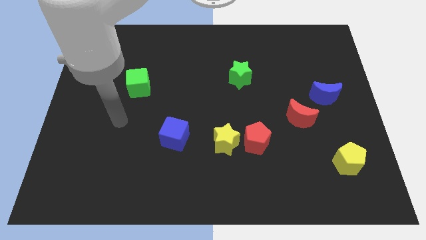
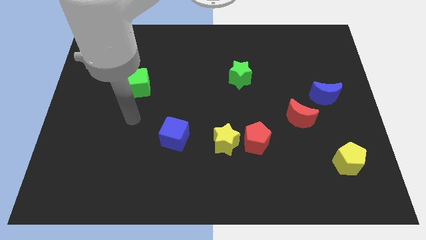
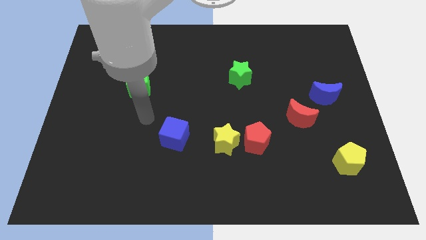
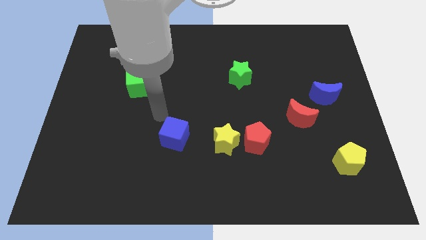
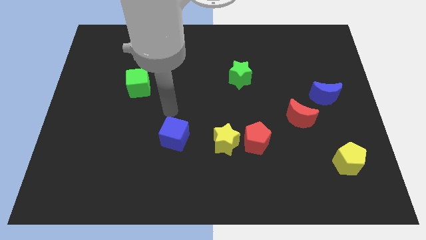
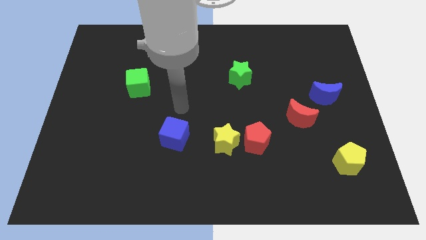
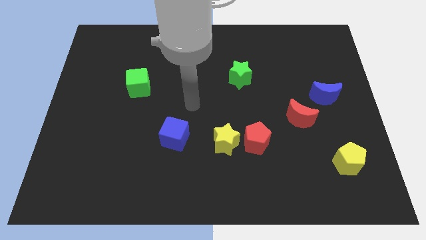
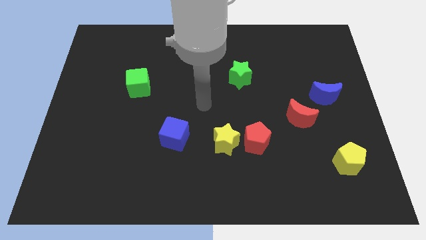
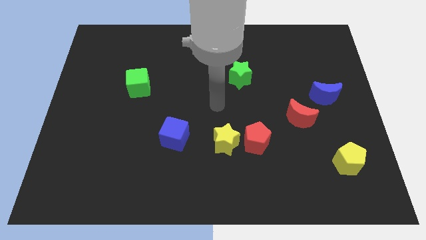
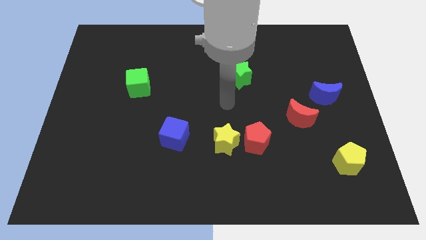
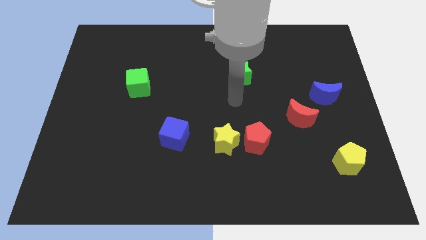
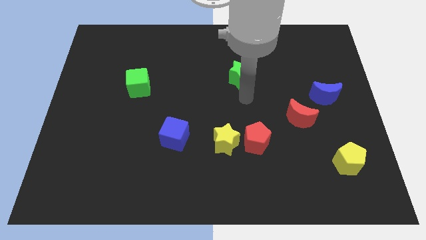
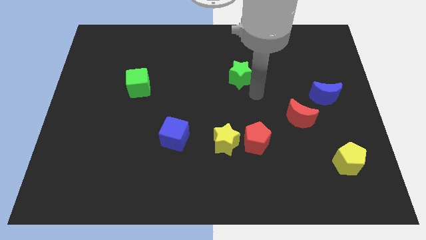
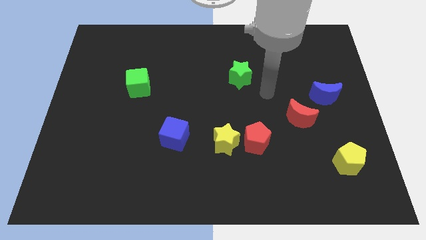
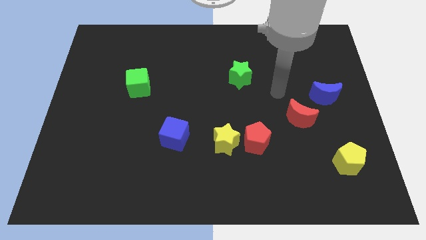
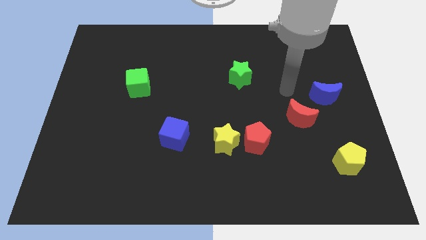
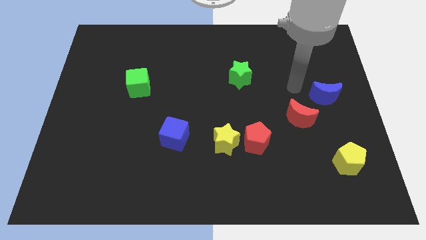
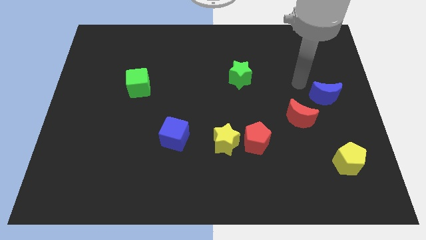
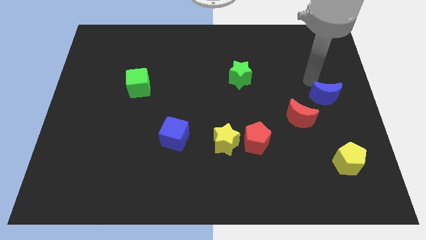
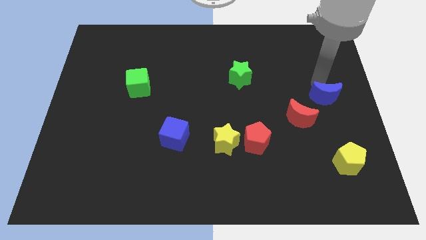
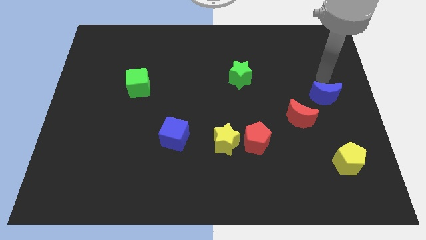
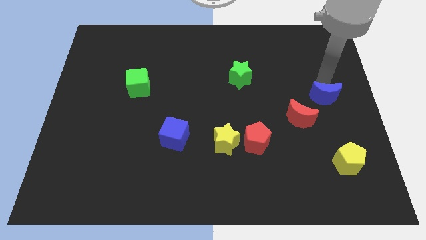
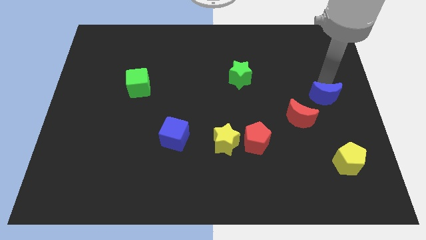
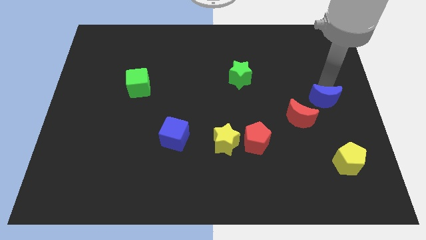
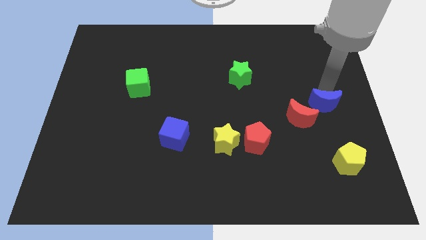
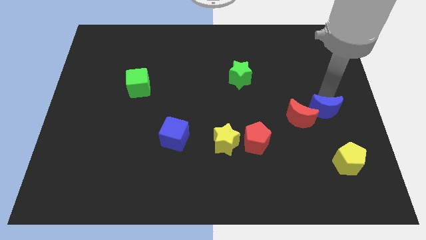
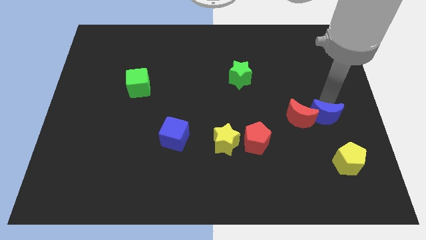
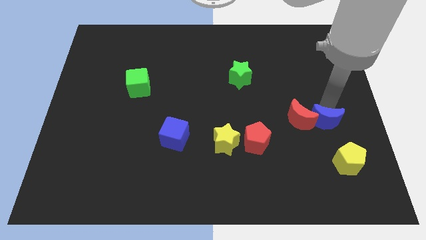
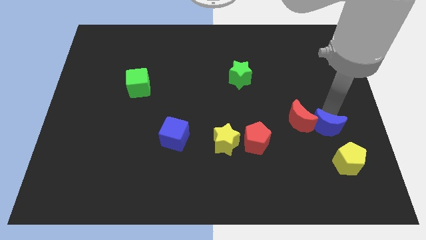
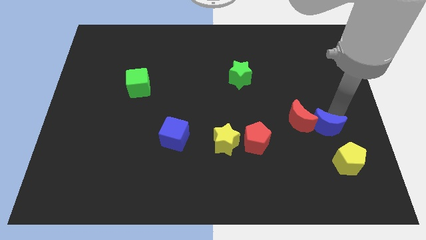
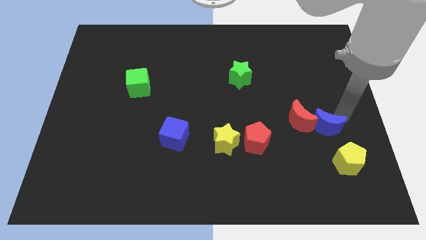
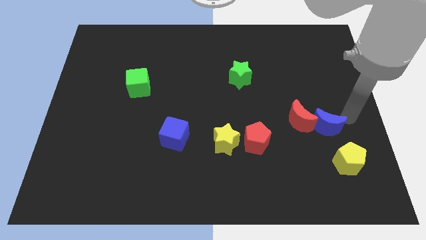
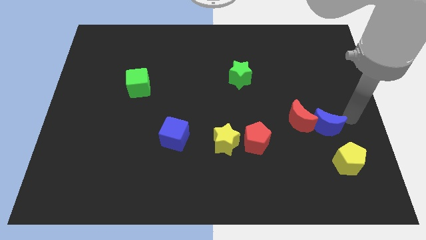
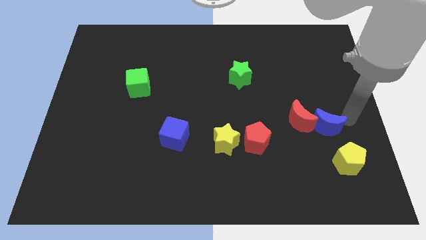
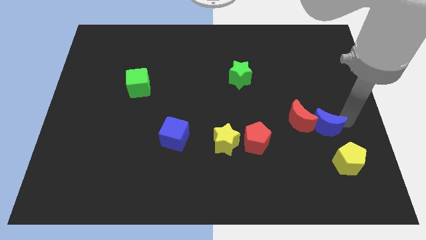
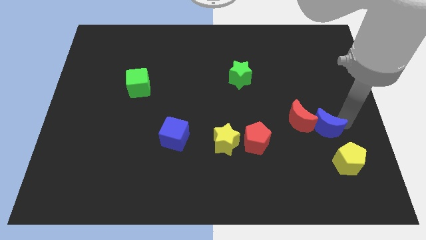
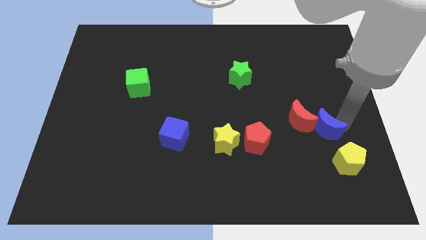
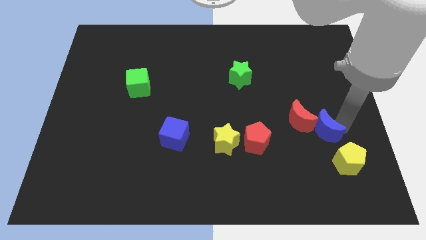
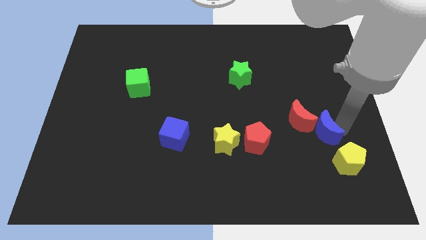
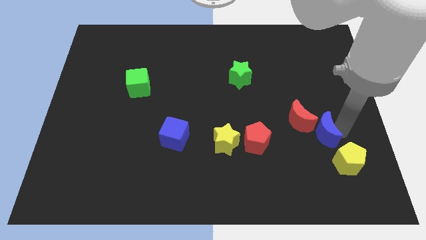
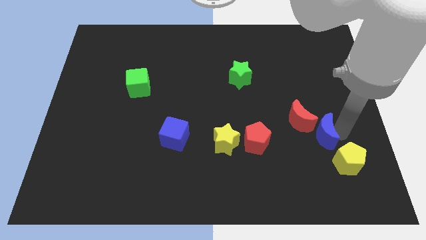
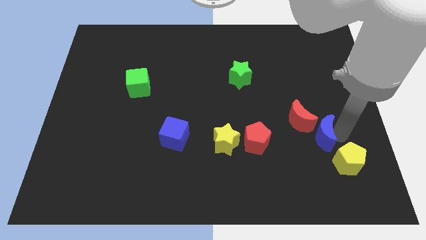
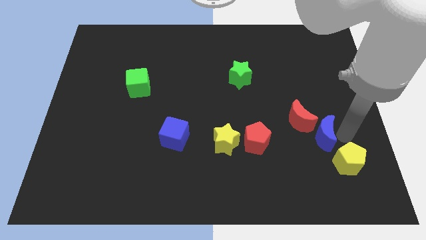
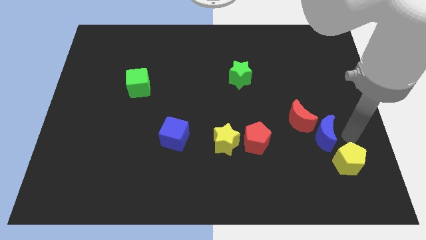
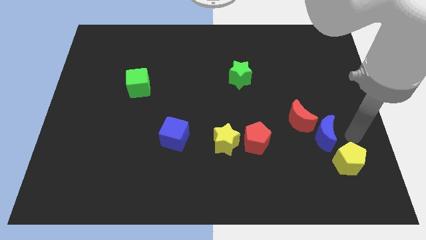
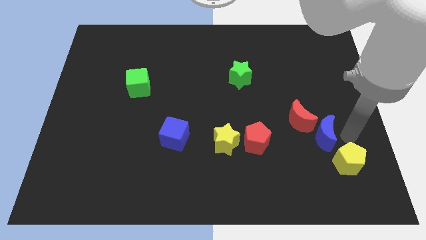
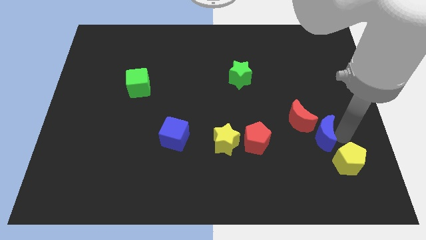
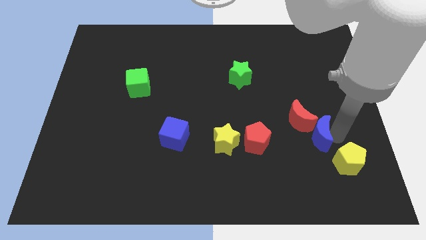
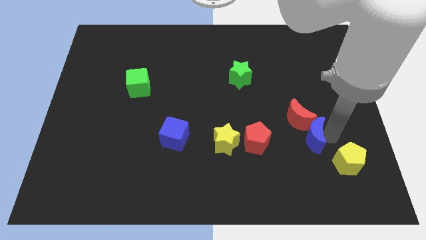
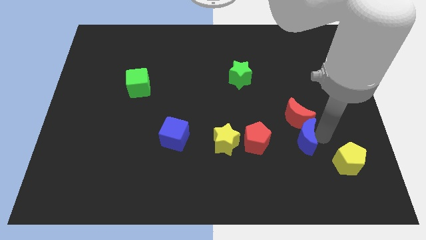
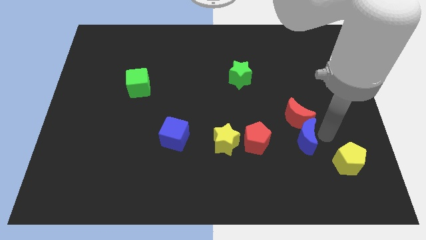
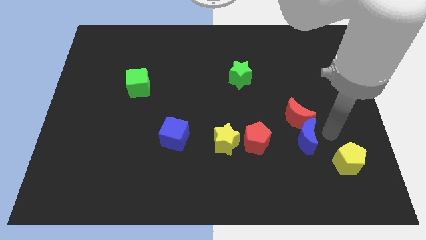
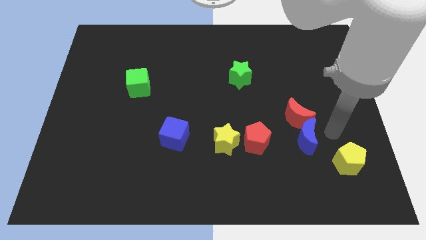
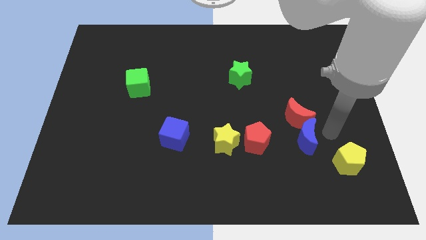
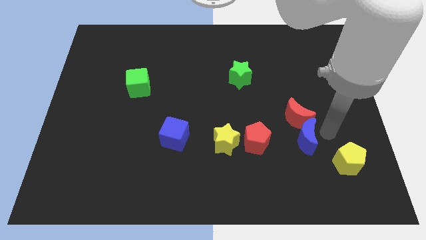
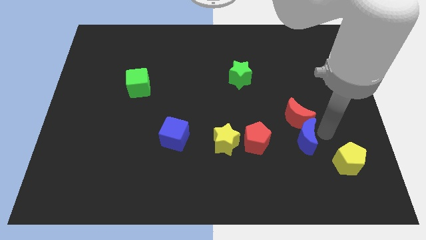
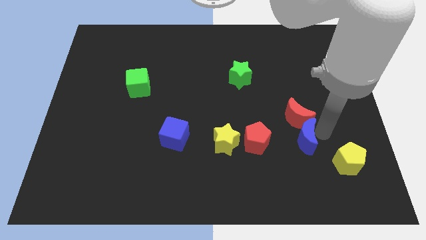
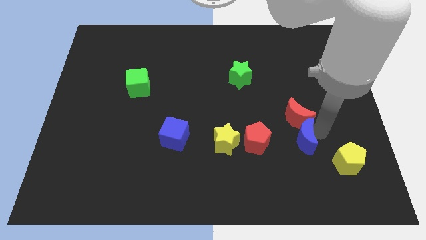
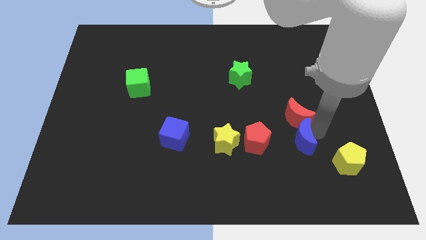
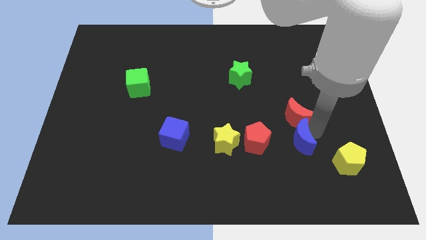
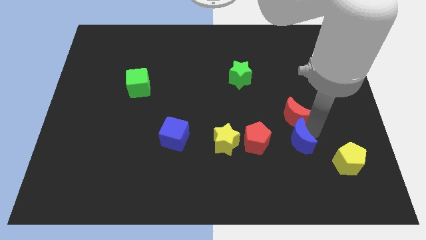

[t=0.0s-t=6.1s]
move the blue moon to the right of the yellow star
